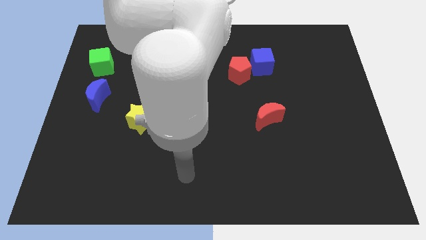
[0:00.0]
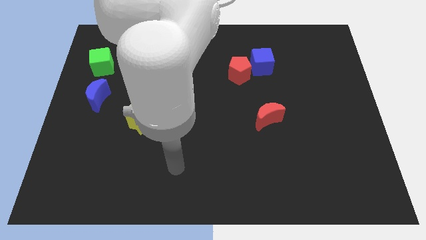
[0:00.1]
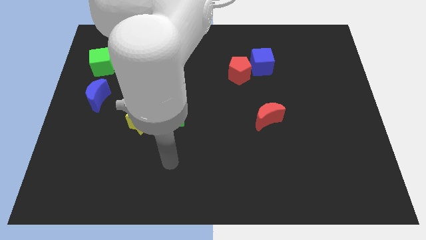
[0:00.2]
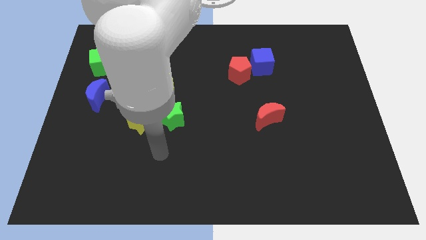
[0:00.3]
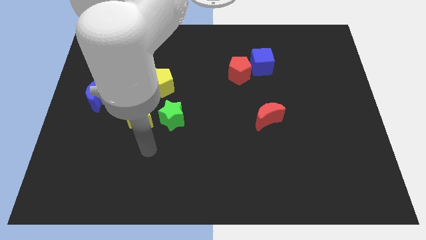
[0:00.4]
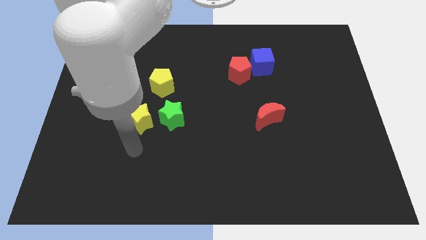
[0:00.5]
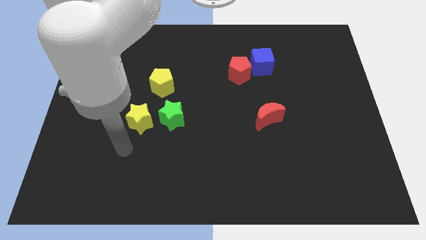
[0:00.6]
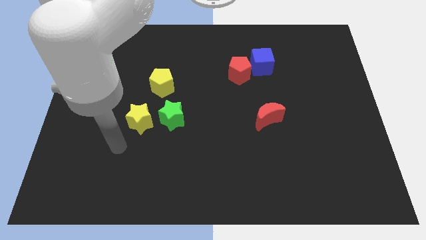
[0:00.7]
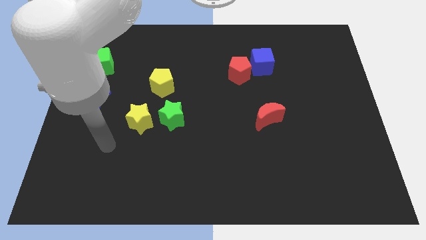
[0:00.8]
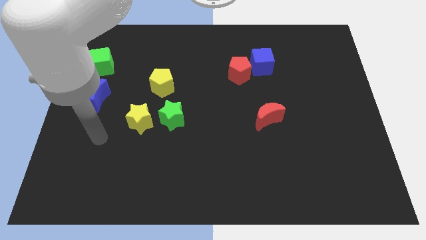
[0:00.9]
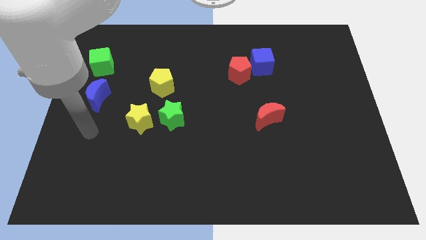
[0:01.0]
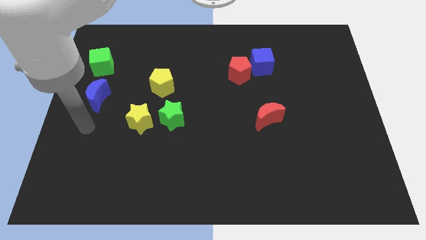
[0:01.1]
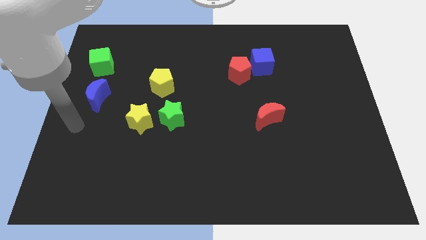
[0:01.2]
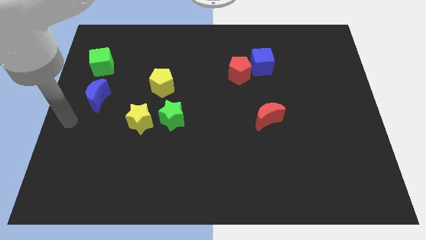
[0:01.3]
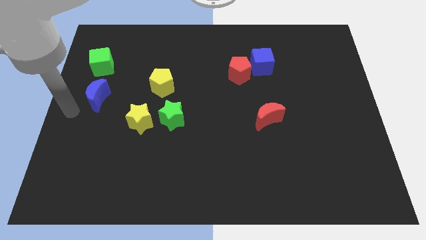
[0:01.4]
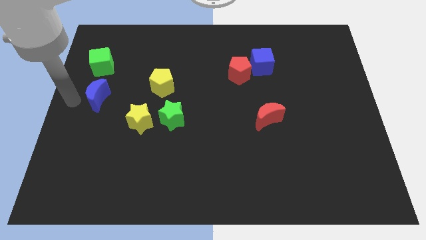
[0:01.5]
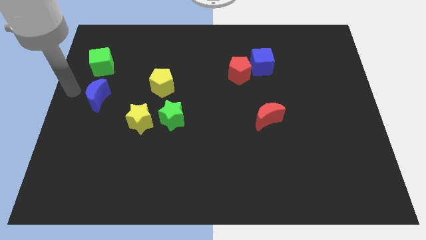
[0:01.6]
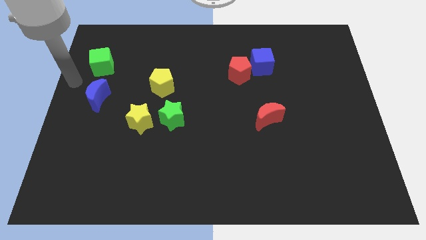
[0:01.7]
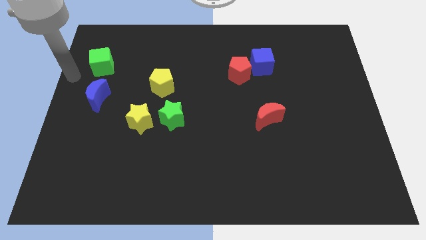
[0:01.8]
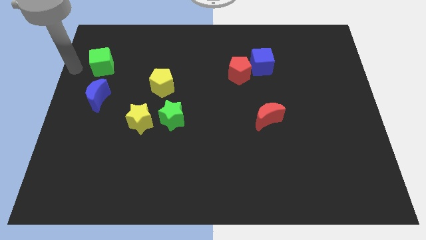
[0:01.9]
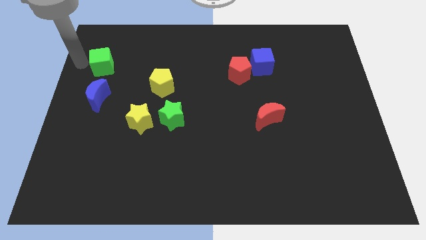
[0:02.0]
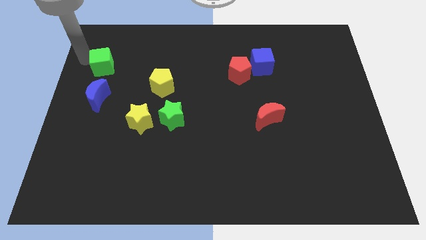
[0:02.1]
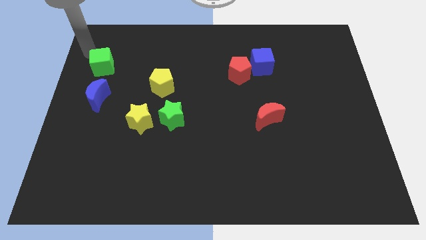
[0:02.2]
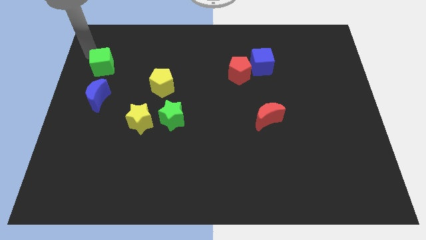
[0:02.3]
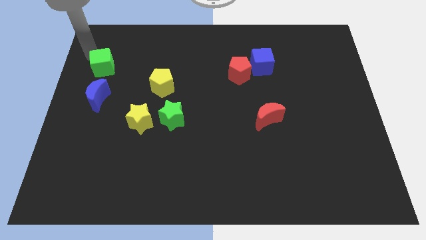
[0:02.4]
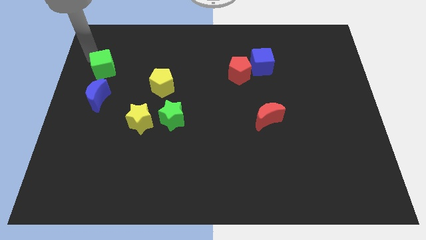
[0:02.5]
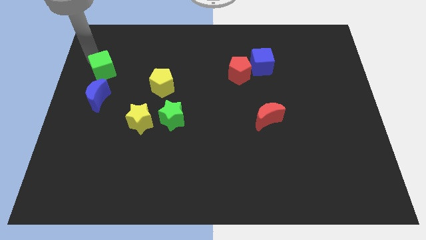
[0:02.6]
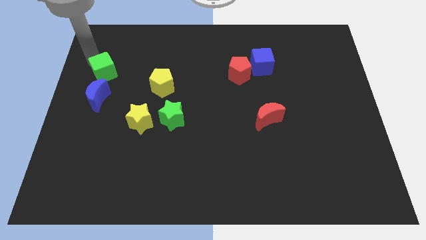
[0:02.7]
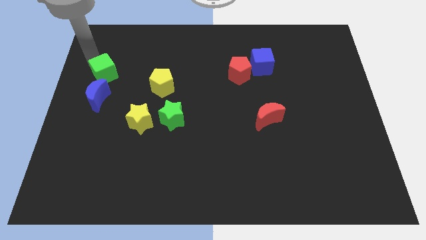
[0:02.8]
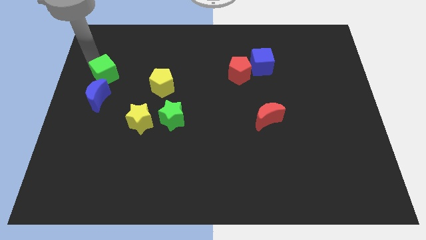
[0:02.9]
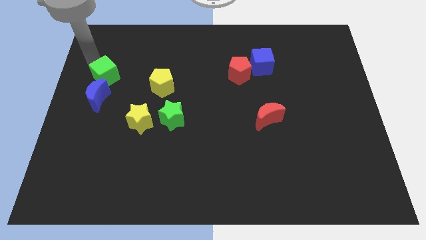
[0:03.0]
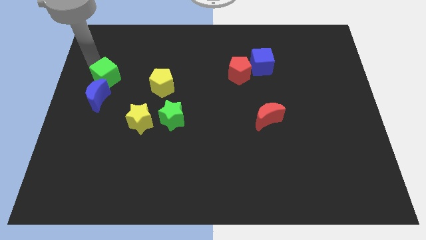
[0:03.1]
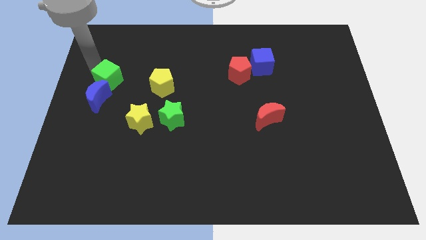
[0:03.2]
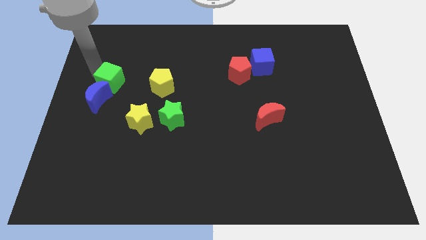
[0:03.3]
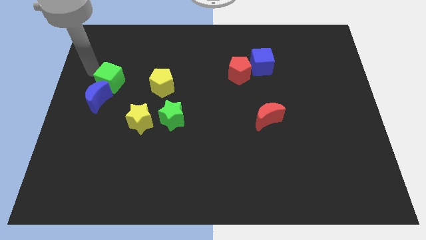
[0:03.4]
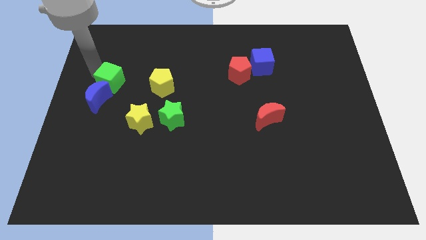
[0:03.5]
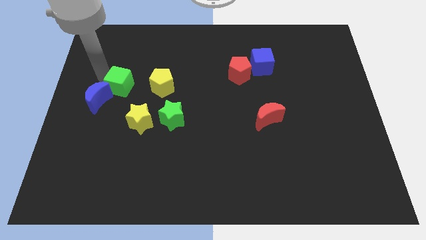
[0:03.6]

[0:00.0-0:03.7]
slide the green cube down and to the right slightly

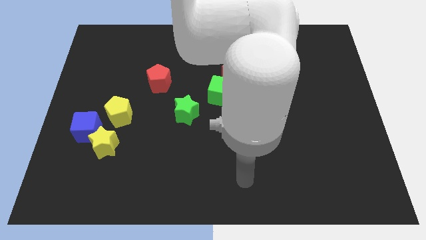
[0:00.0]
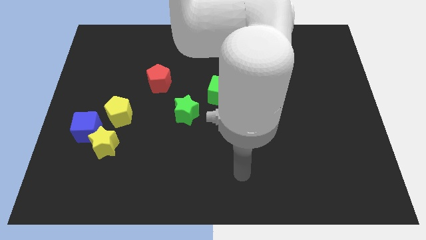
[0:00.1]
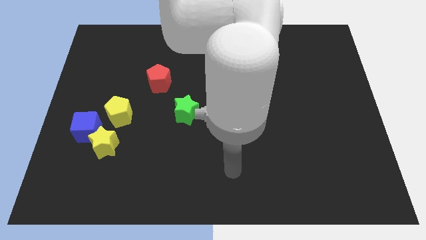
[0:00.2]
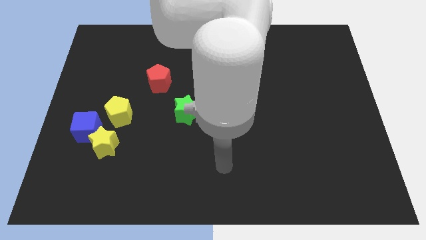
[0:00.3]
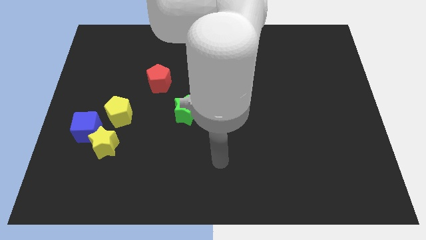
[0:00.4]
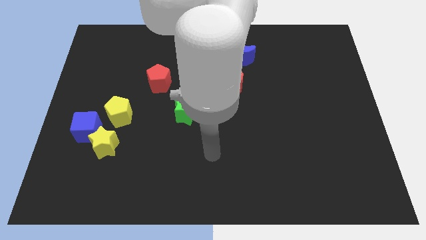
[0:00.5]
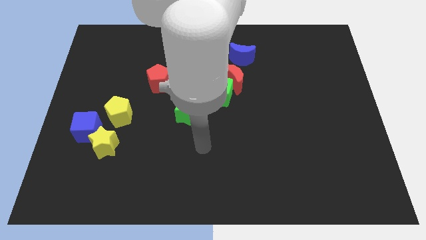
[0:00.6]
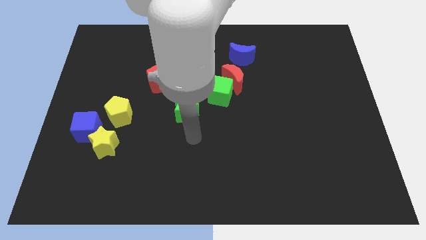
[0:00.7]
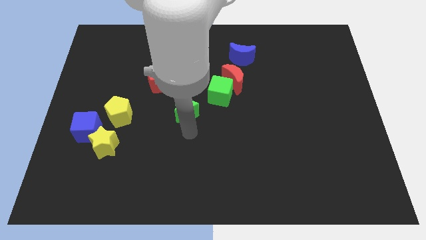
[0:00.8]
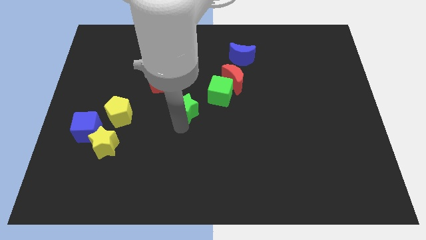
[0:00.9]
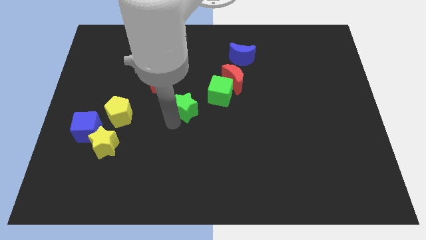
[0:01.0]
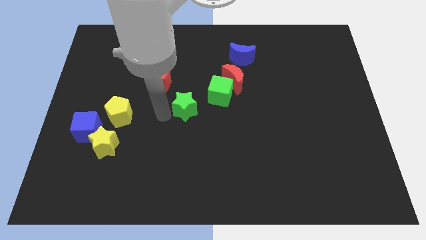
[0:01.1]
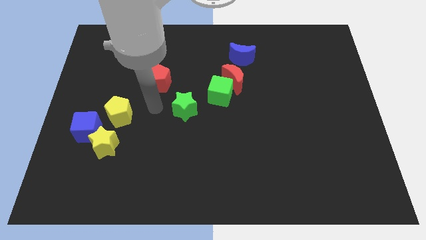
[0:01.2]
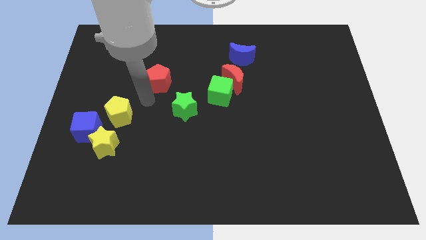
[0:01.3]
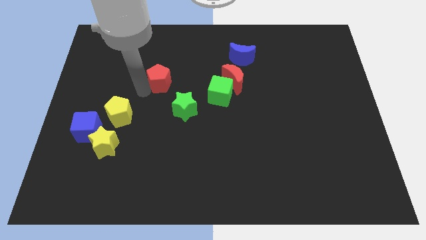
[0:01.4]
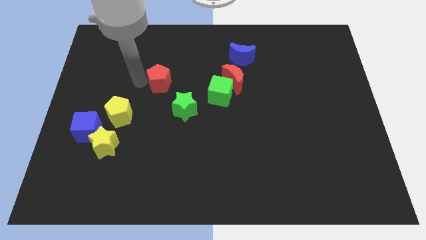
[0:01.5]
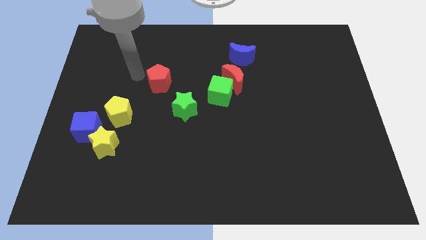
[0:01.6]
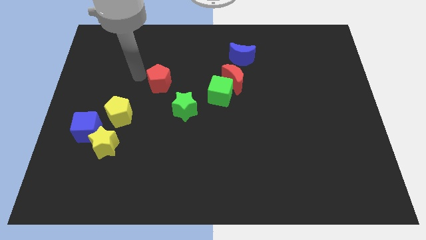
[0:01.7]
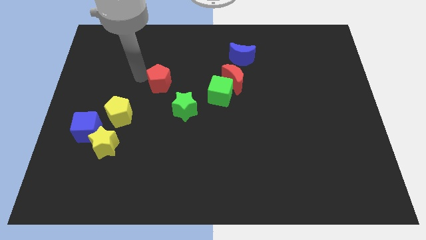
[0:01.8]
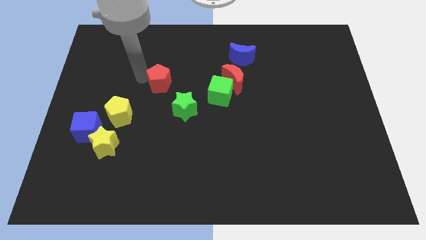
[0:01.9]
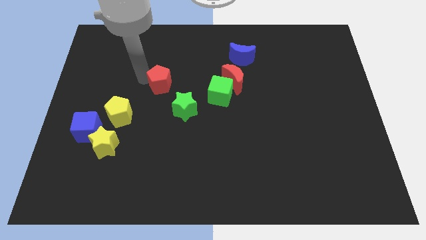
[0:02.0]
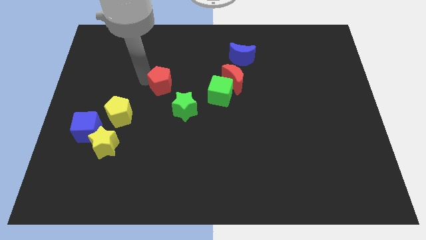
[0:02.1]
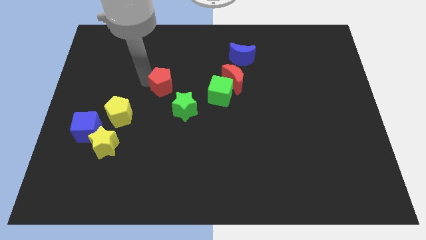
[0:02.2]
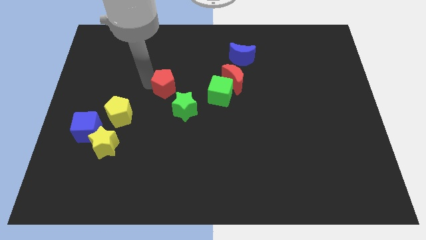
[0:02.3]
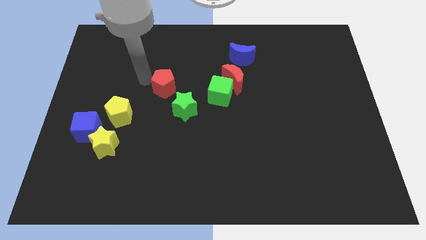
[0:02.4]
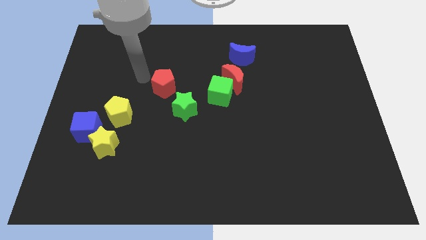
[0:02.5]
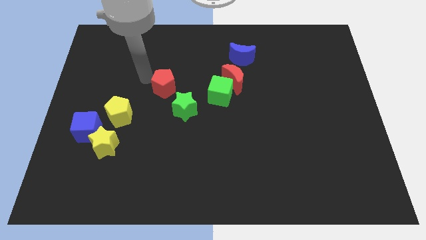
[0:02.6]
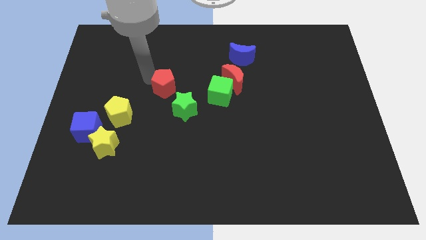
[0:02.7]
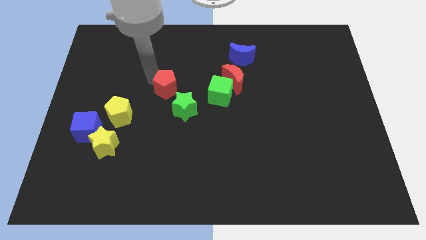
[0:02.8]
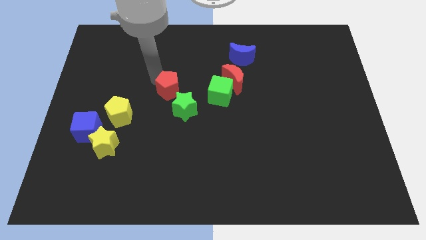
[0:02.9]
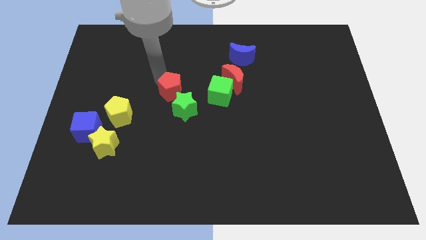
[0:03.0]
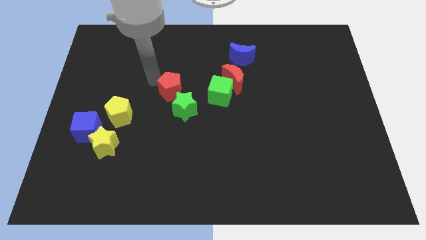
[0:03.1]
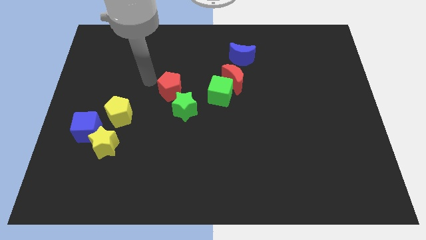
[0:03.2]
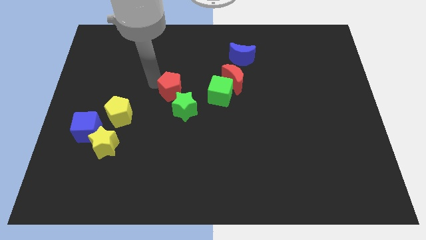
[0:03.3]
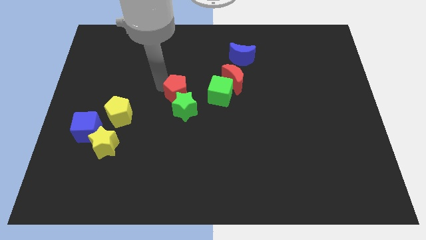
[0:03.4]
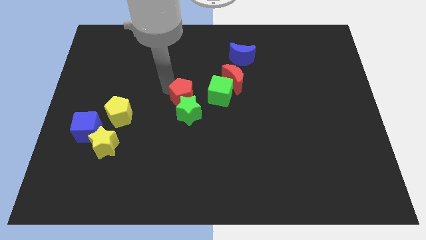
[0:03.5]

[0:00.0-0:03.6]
slide the red pentagon diagonally downwards and right a little

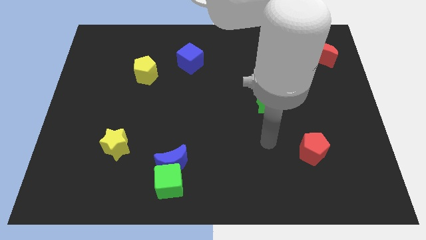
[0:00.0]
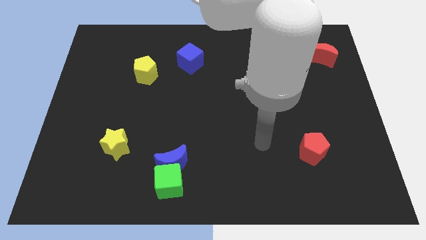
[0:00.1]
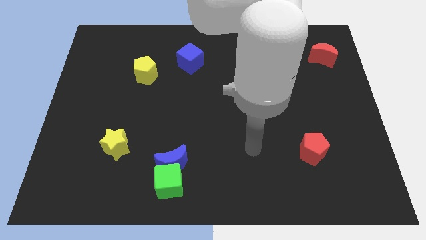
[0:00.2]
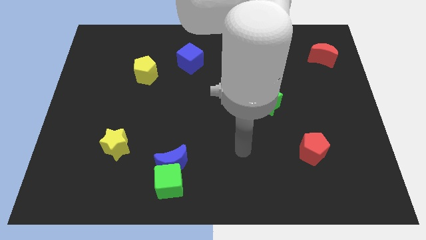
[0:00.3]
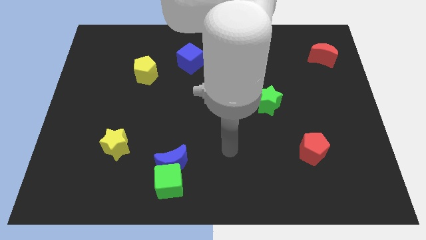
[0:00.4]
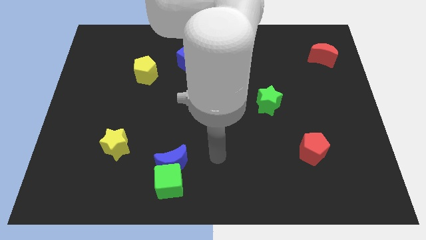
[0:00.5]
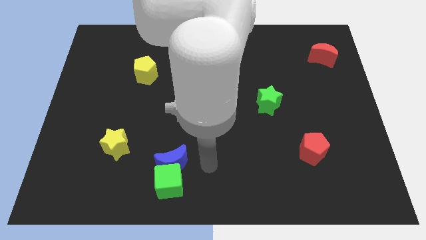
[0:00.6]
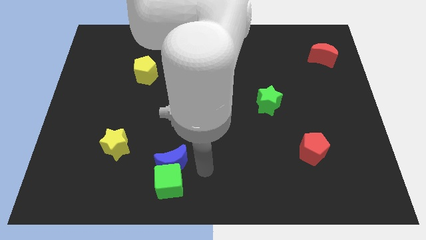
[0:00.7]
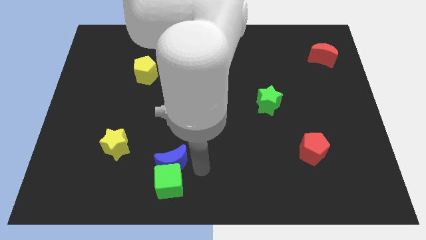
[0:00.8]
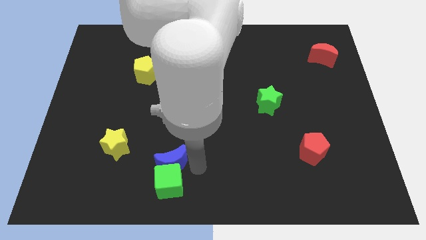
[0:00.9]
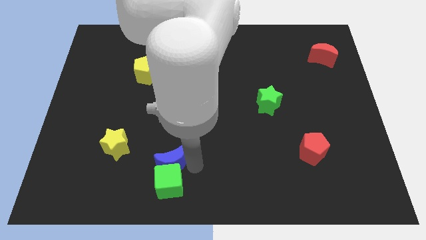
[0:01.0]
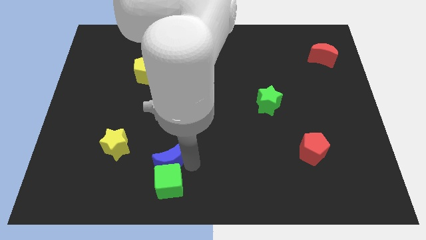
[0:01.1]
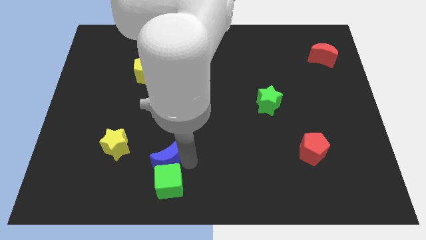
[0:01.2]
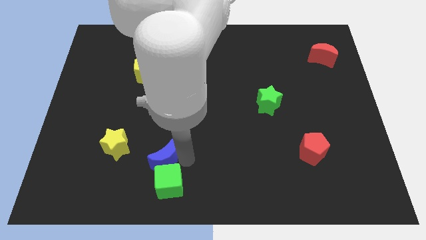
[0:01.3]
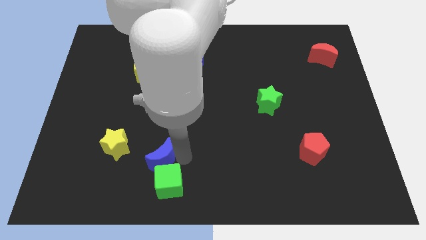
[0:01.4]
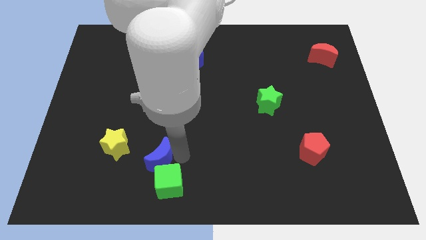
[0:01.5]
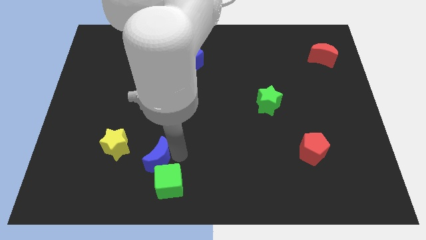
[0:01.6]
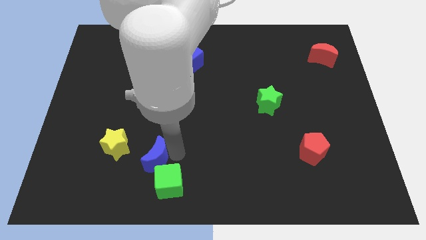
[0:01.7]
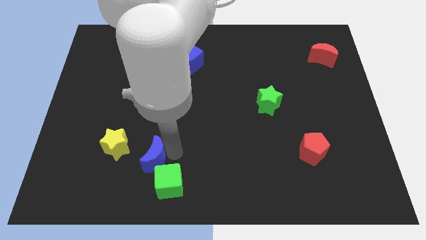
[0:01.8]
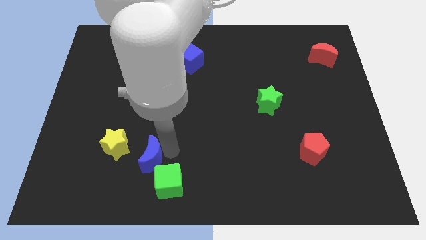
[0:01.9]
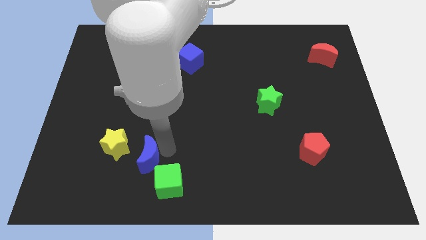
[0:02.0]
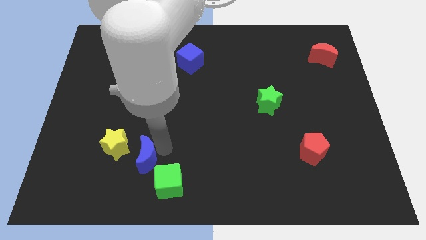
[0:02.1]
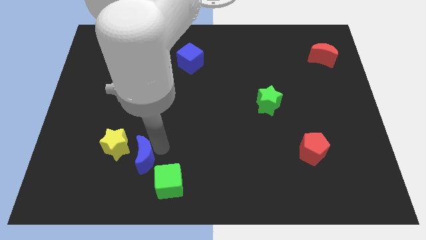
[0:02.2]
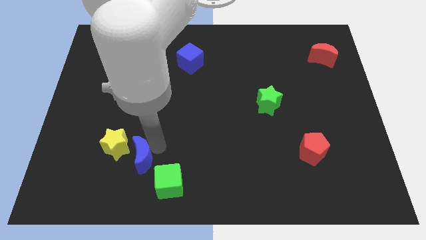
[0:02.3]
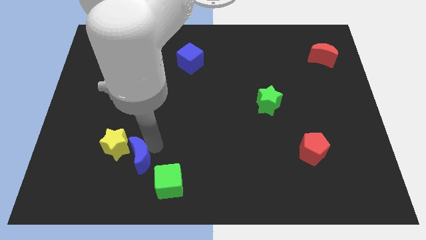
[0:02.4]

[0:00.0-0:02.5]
slightly move the blue moon to the left
